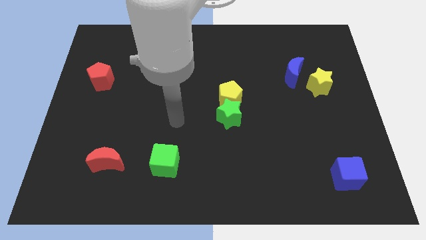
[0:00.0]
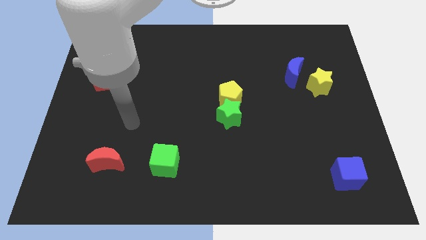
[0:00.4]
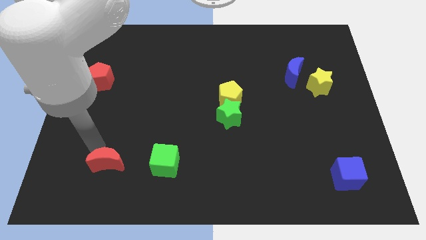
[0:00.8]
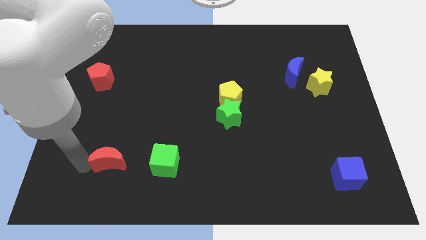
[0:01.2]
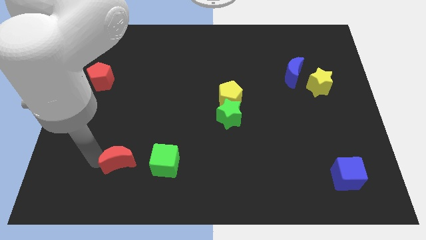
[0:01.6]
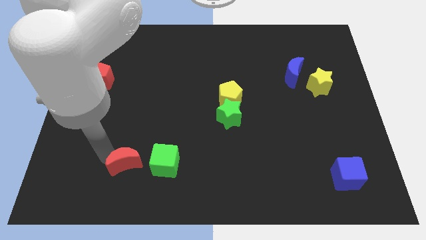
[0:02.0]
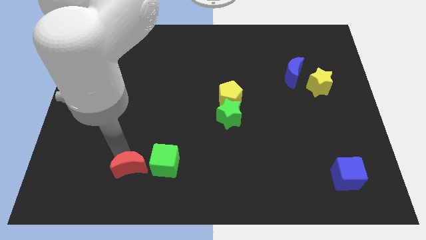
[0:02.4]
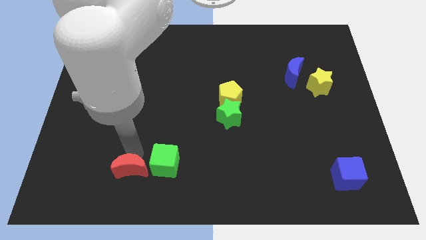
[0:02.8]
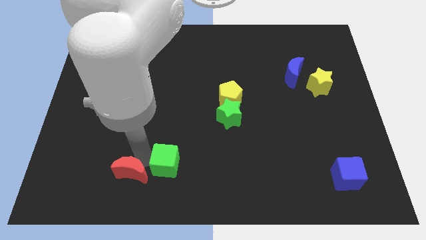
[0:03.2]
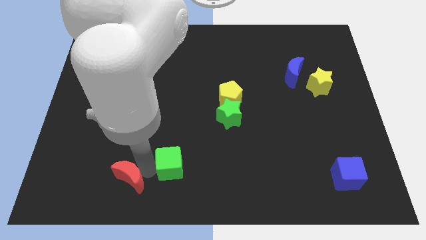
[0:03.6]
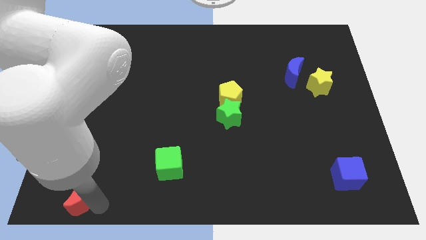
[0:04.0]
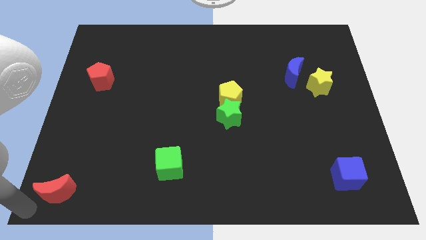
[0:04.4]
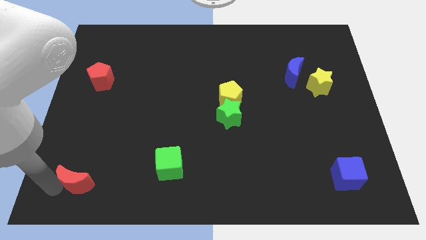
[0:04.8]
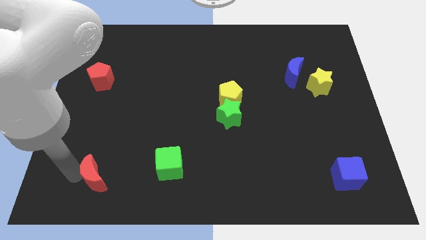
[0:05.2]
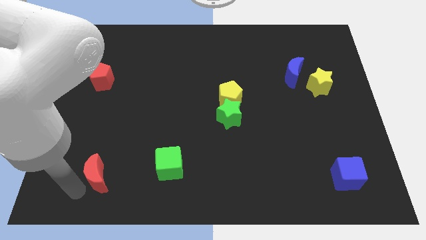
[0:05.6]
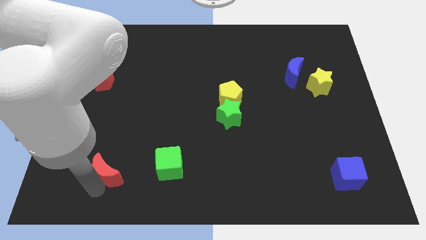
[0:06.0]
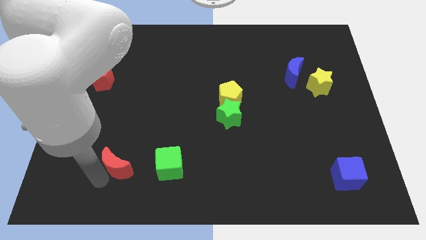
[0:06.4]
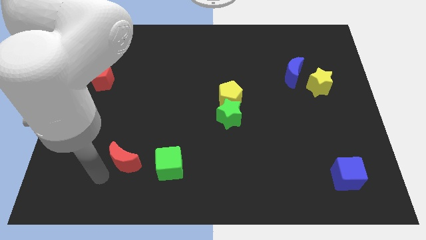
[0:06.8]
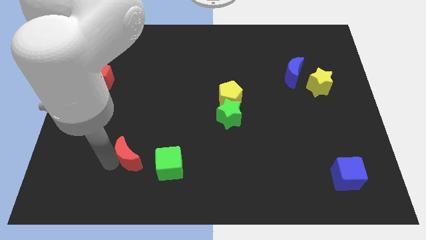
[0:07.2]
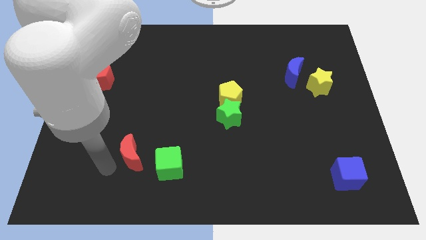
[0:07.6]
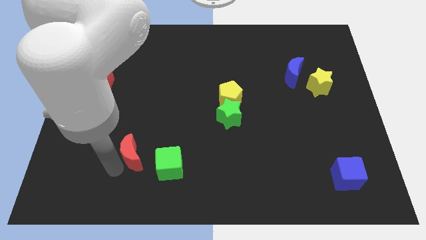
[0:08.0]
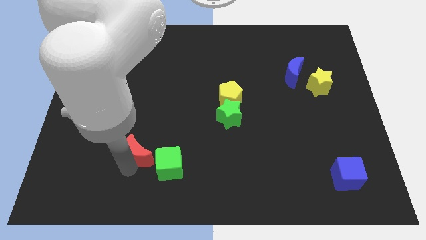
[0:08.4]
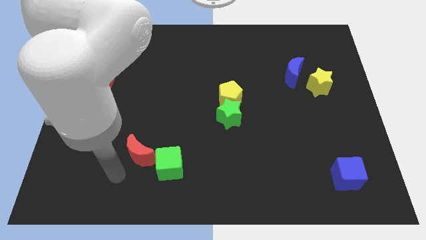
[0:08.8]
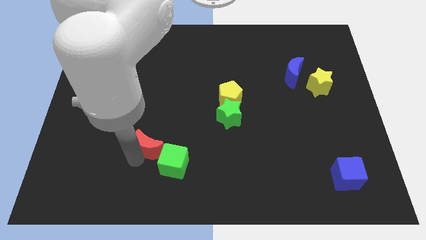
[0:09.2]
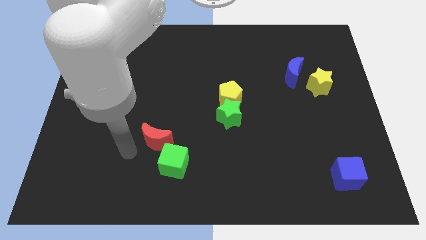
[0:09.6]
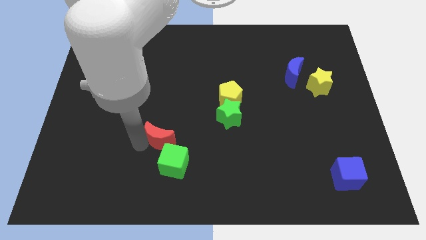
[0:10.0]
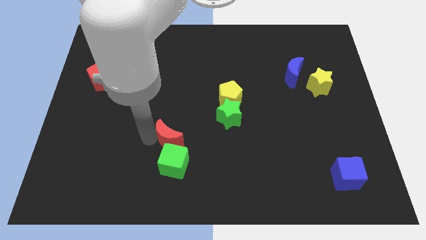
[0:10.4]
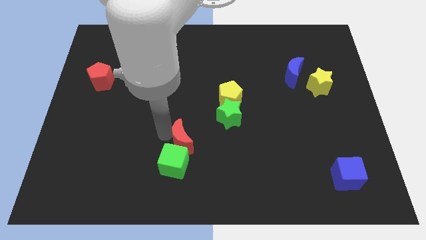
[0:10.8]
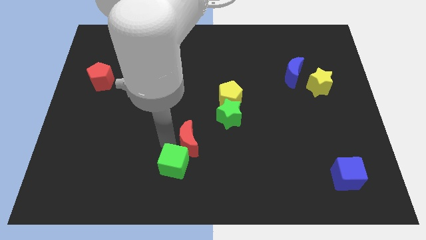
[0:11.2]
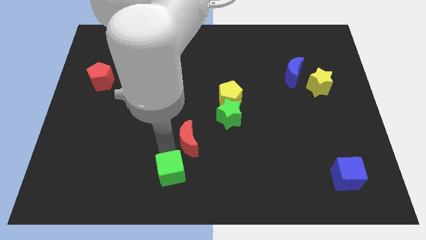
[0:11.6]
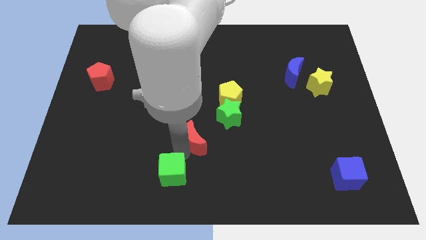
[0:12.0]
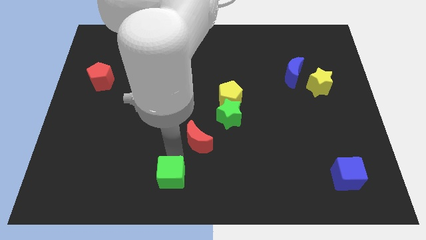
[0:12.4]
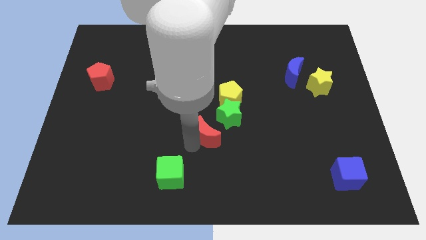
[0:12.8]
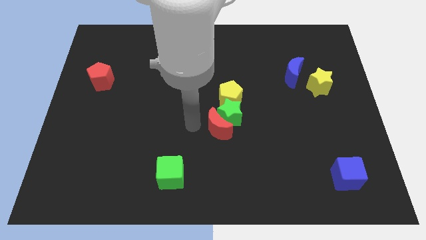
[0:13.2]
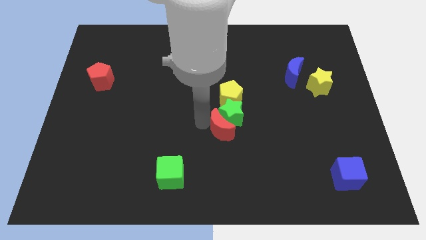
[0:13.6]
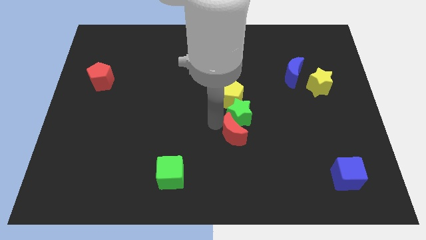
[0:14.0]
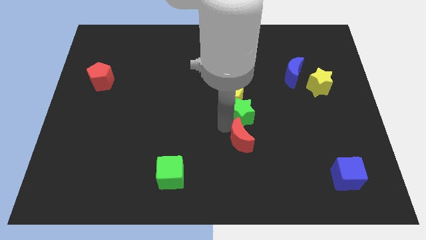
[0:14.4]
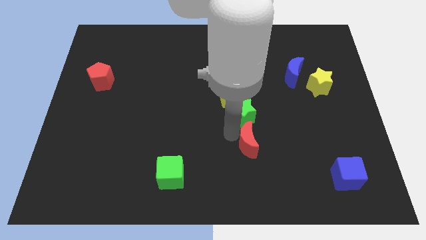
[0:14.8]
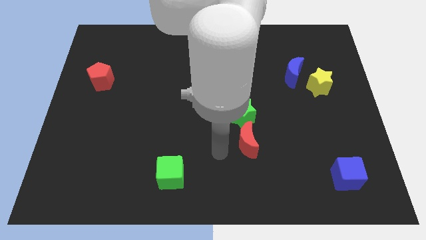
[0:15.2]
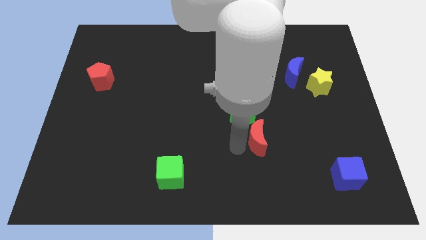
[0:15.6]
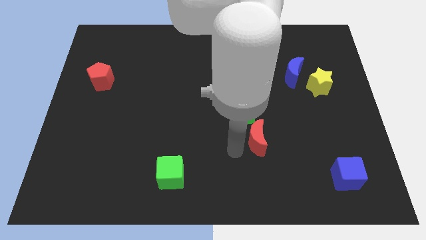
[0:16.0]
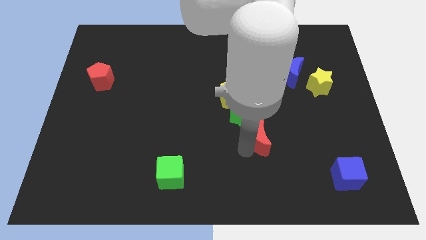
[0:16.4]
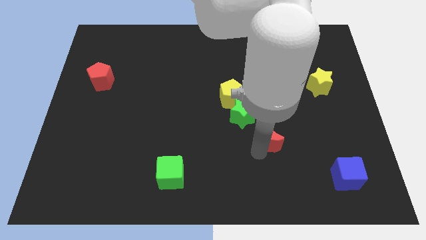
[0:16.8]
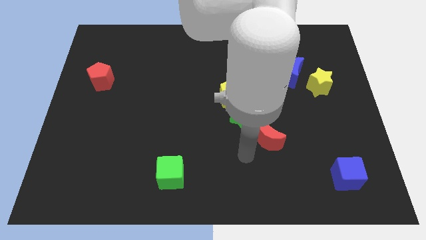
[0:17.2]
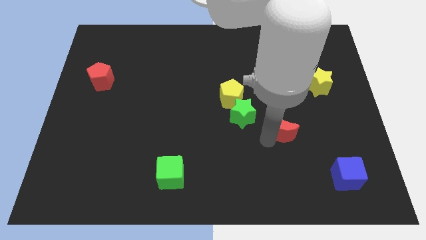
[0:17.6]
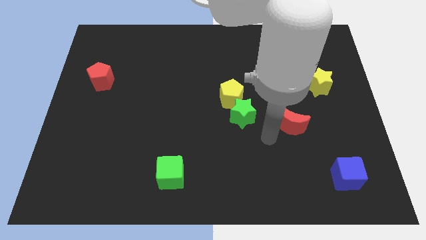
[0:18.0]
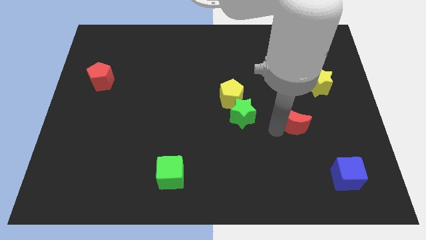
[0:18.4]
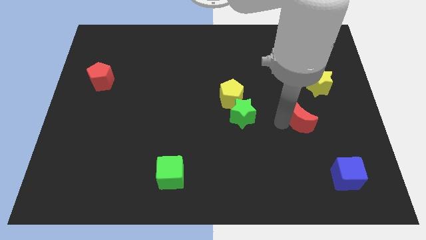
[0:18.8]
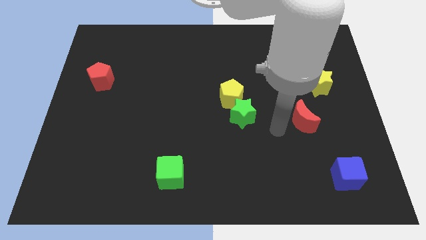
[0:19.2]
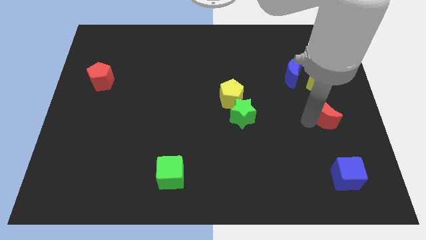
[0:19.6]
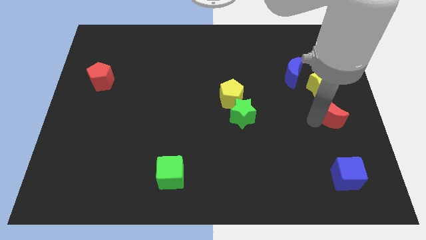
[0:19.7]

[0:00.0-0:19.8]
push the red moon to the center right

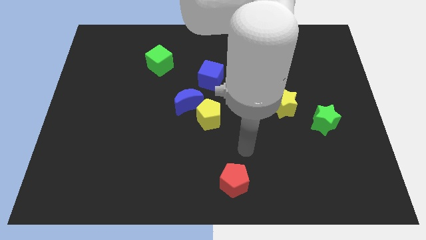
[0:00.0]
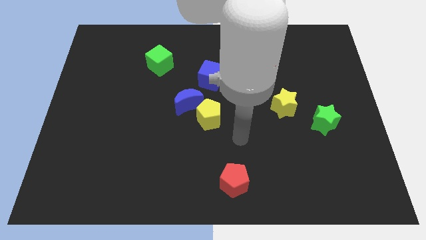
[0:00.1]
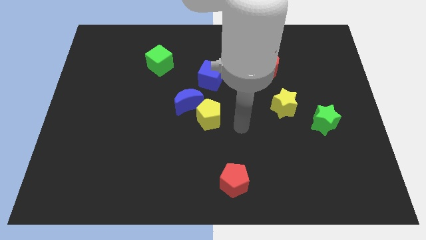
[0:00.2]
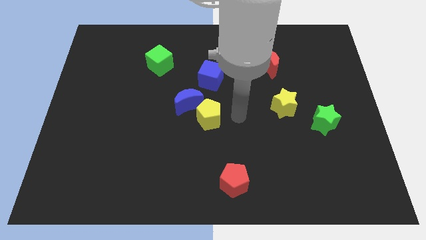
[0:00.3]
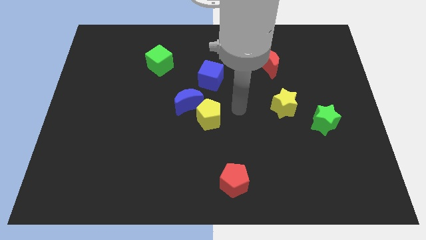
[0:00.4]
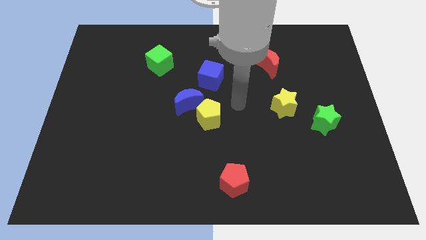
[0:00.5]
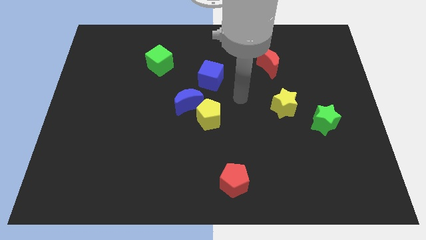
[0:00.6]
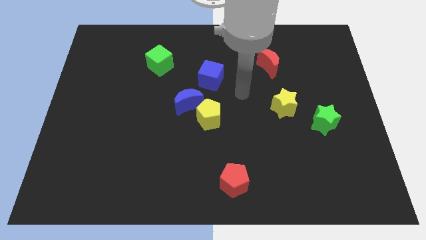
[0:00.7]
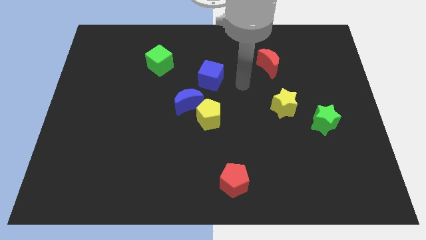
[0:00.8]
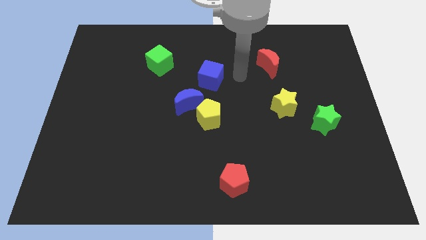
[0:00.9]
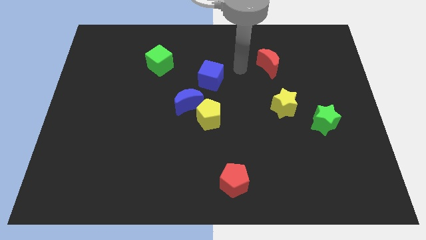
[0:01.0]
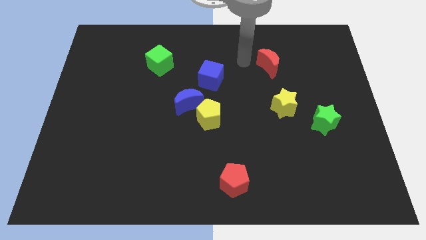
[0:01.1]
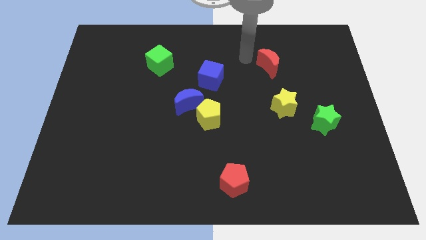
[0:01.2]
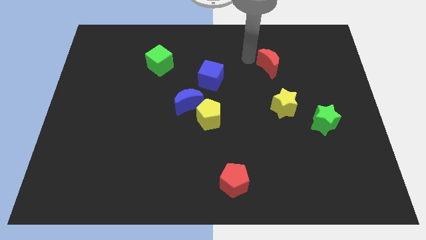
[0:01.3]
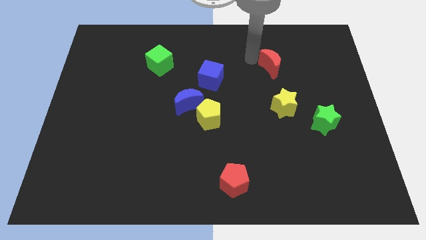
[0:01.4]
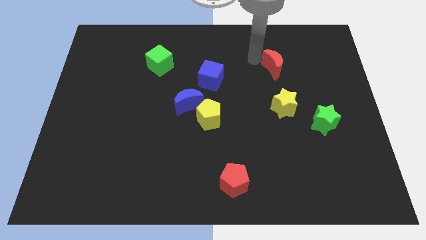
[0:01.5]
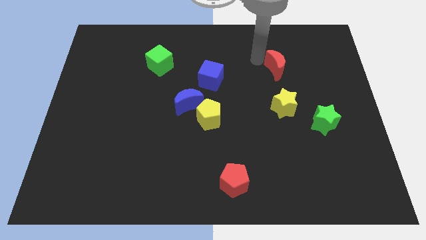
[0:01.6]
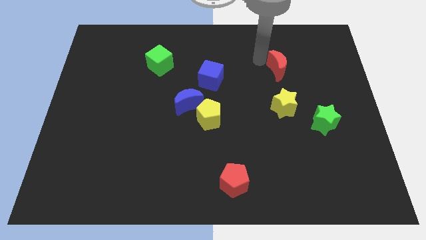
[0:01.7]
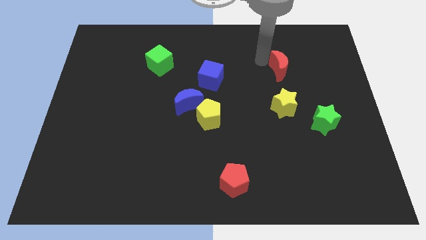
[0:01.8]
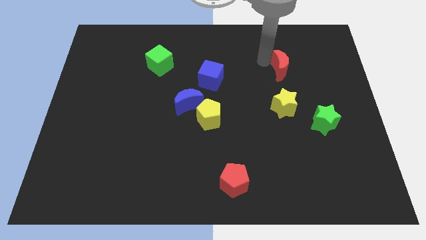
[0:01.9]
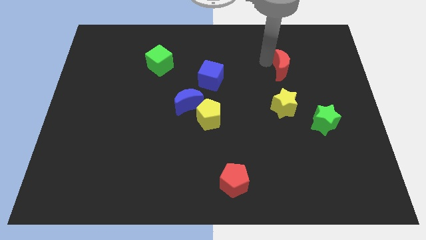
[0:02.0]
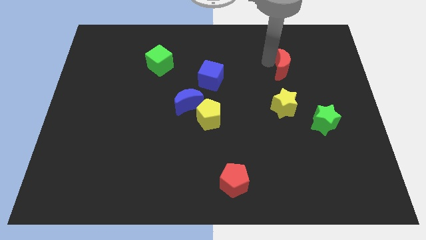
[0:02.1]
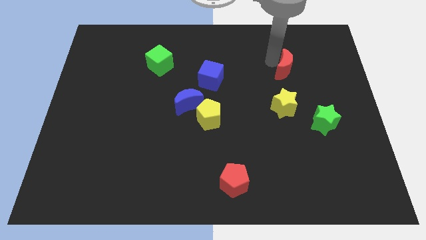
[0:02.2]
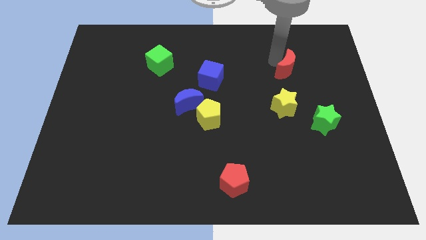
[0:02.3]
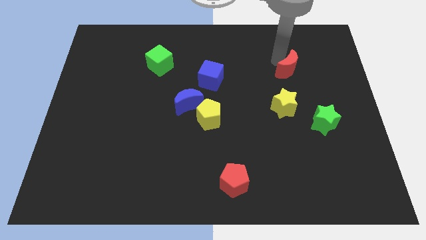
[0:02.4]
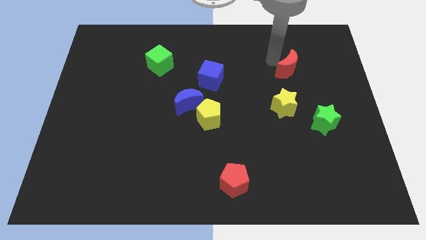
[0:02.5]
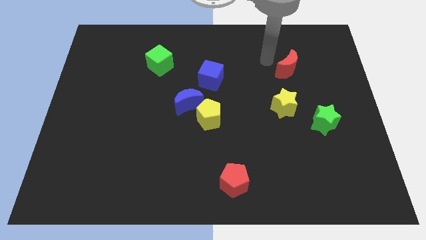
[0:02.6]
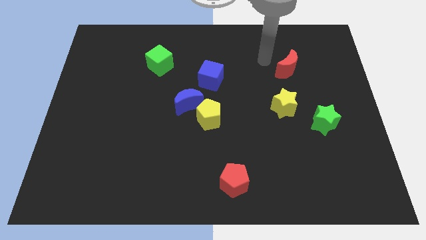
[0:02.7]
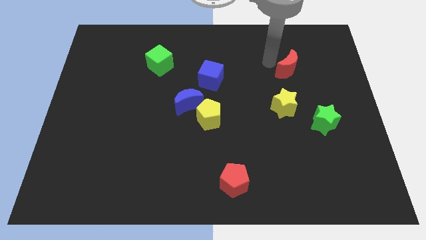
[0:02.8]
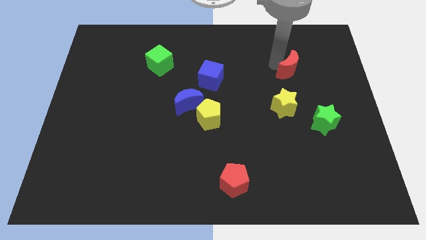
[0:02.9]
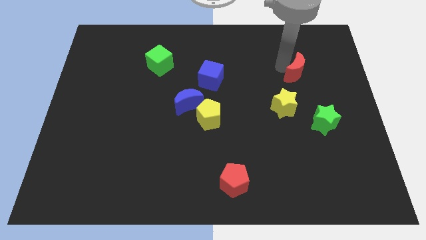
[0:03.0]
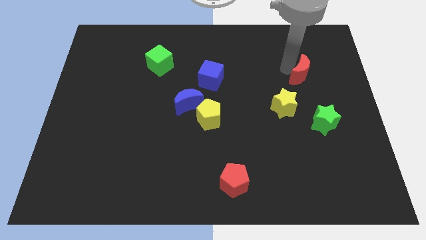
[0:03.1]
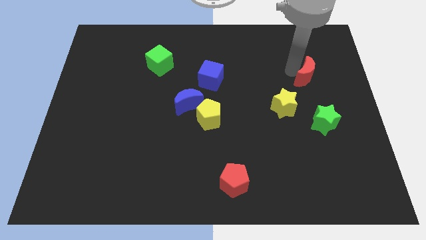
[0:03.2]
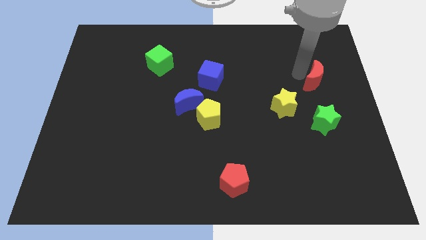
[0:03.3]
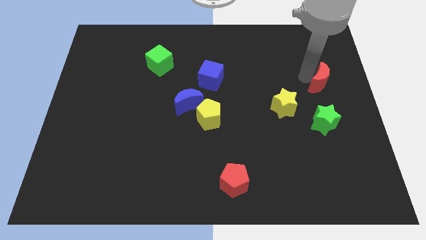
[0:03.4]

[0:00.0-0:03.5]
push the red moon to the right side
